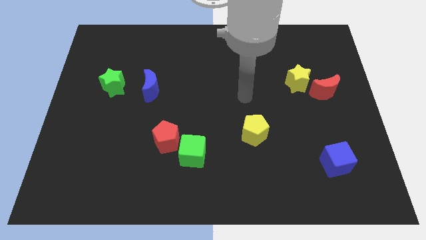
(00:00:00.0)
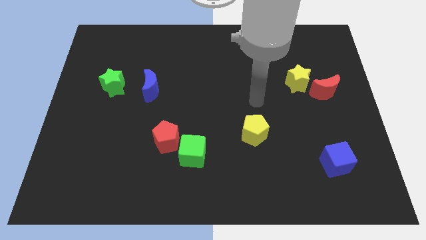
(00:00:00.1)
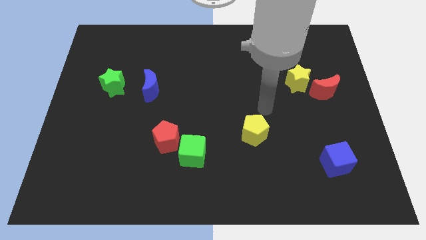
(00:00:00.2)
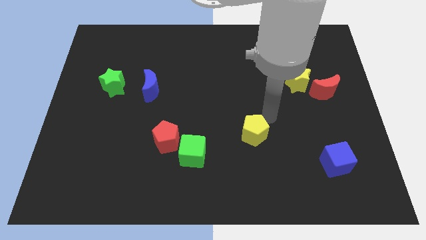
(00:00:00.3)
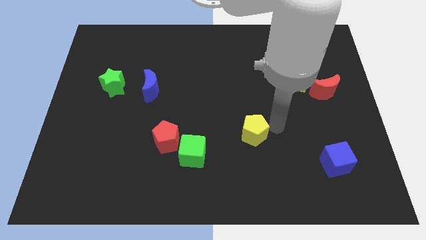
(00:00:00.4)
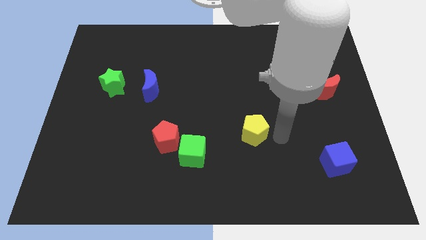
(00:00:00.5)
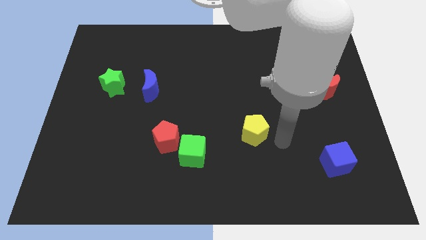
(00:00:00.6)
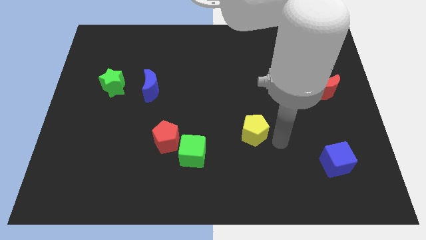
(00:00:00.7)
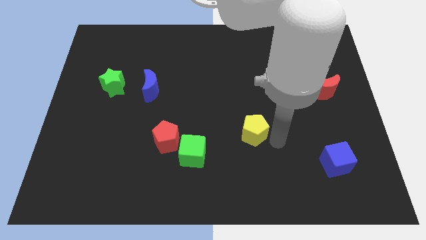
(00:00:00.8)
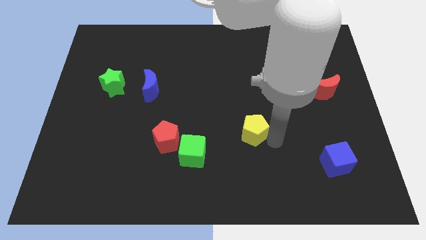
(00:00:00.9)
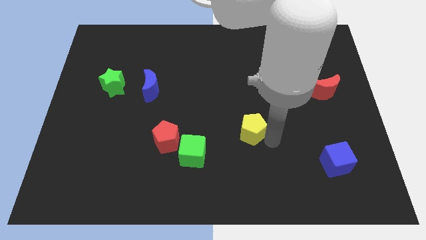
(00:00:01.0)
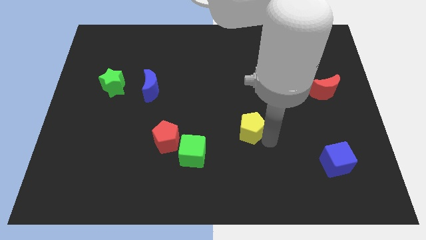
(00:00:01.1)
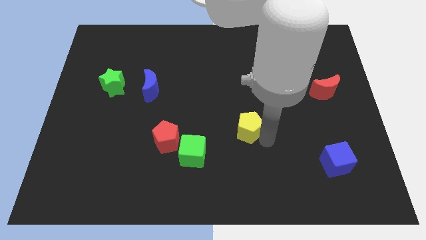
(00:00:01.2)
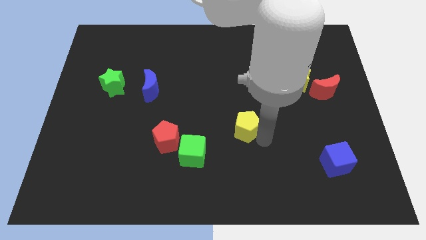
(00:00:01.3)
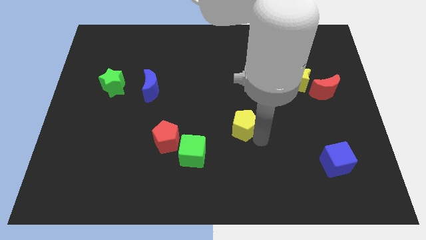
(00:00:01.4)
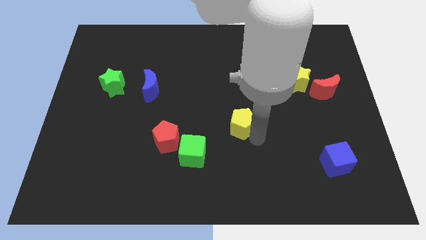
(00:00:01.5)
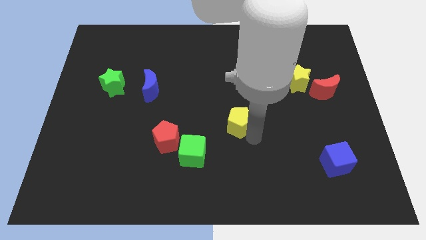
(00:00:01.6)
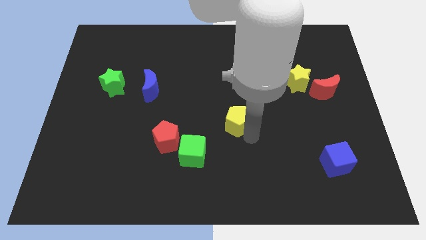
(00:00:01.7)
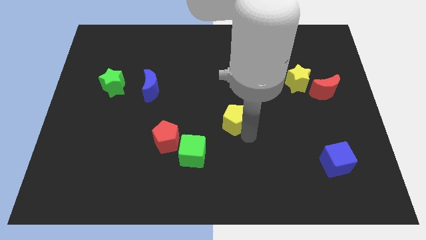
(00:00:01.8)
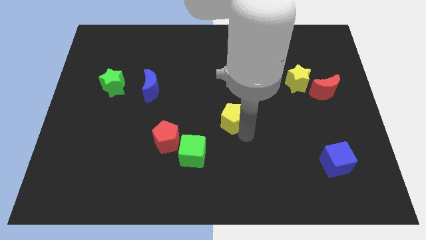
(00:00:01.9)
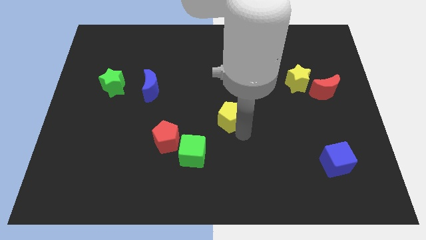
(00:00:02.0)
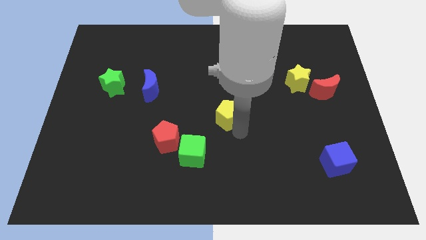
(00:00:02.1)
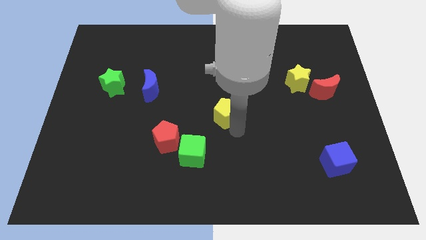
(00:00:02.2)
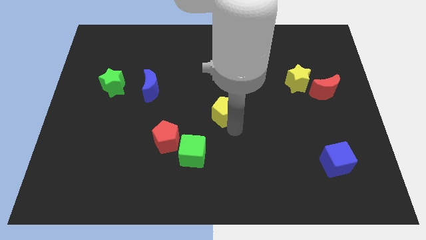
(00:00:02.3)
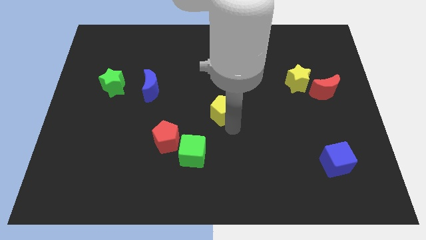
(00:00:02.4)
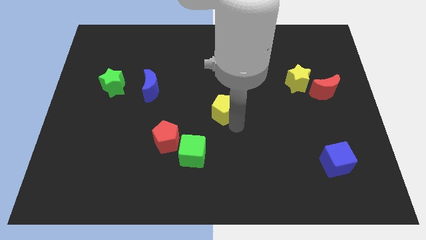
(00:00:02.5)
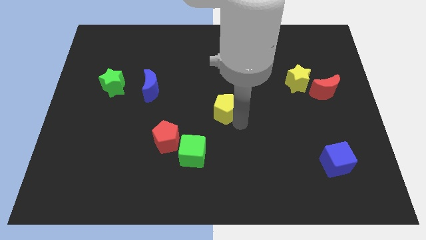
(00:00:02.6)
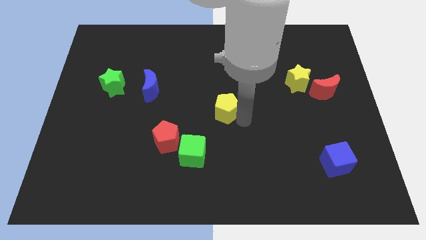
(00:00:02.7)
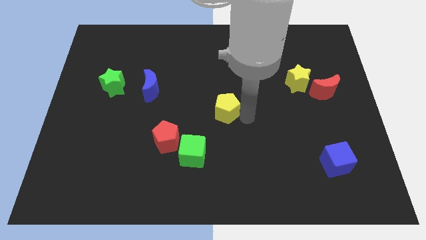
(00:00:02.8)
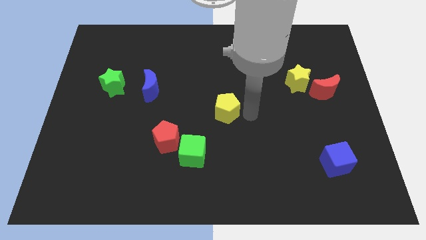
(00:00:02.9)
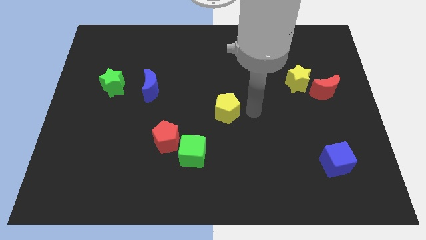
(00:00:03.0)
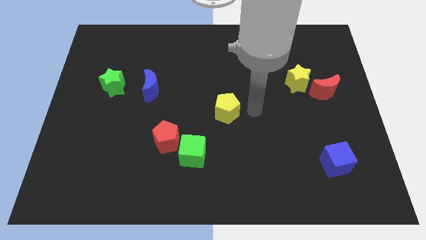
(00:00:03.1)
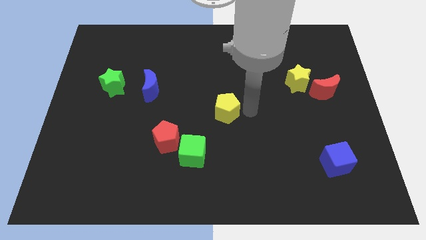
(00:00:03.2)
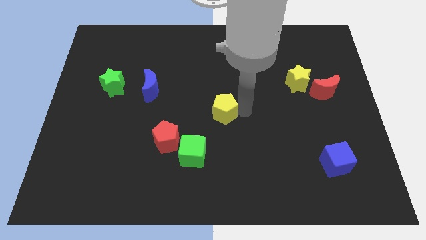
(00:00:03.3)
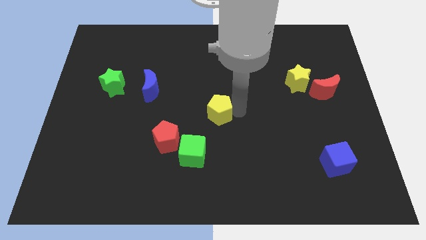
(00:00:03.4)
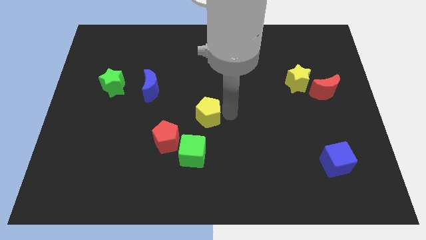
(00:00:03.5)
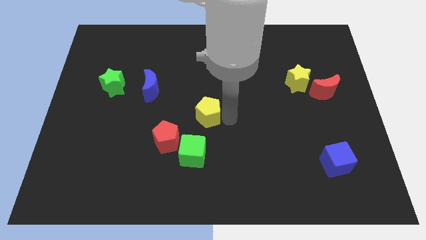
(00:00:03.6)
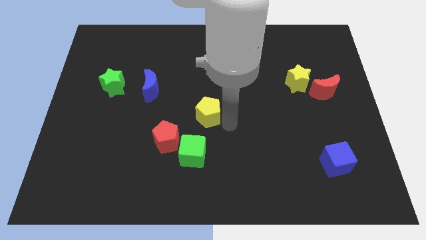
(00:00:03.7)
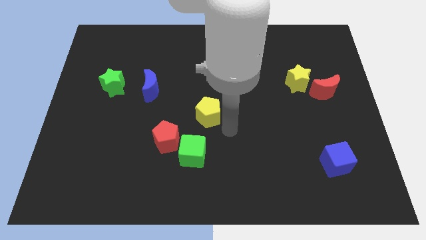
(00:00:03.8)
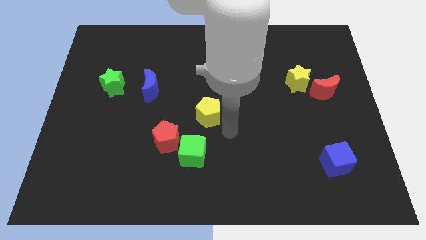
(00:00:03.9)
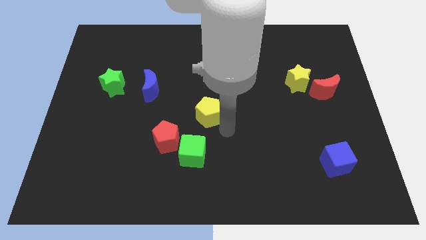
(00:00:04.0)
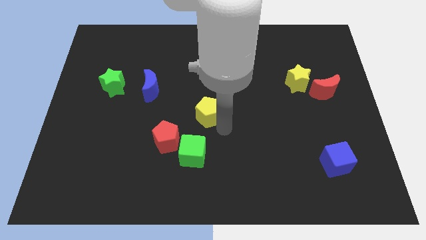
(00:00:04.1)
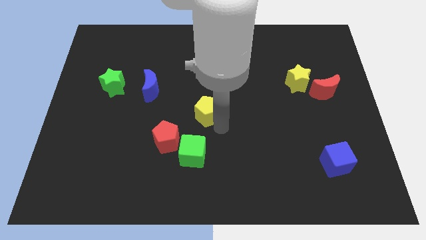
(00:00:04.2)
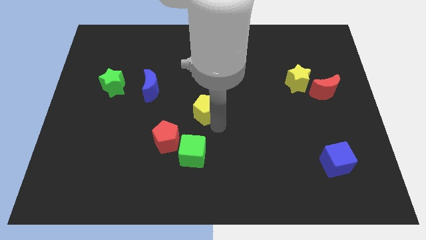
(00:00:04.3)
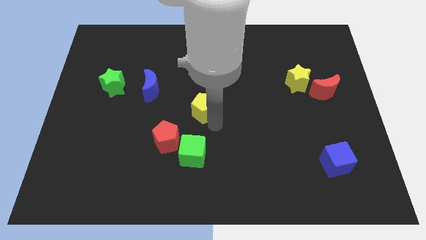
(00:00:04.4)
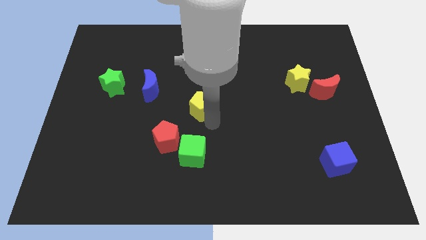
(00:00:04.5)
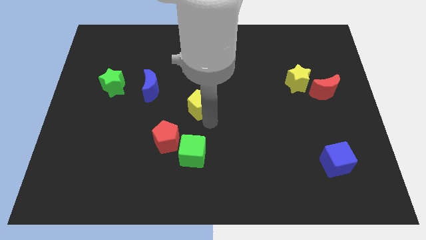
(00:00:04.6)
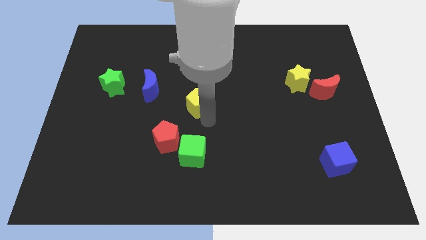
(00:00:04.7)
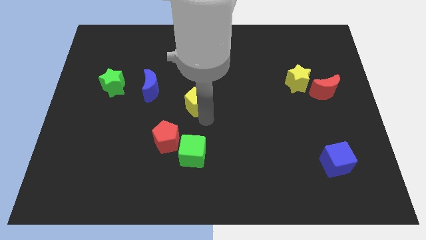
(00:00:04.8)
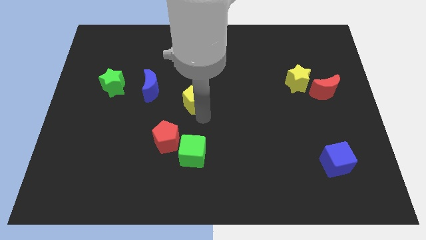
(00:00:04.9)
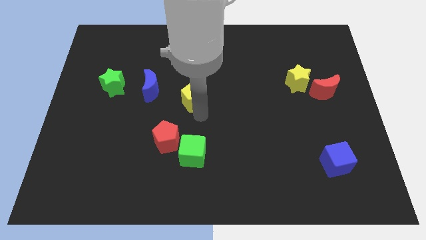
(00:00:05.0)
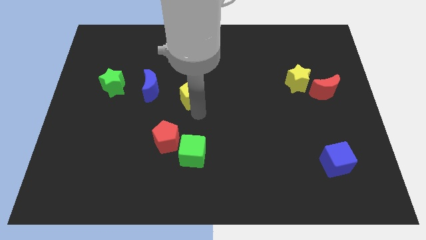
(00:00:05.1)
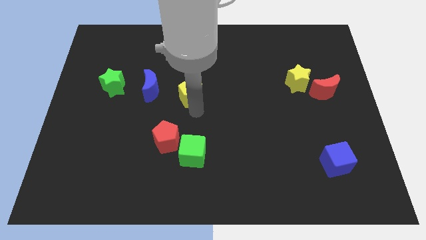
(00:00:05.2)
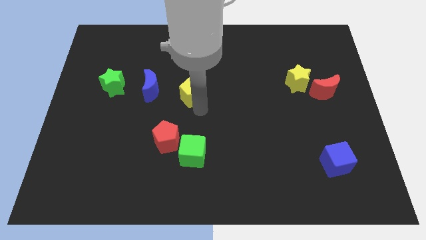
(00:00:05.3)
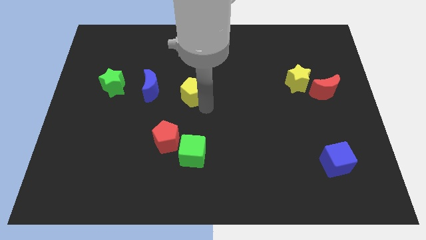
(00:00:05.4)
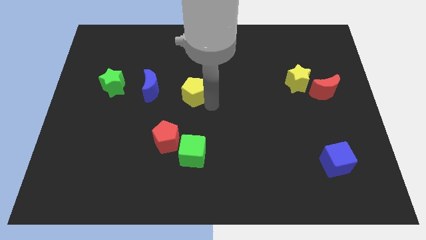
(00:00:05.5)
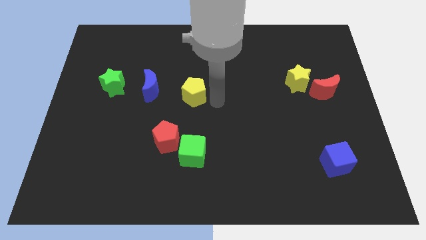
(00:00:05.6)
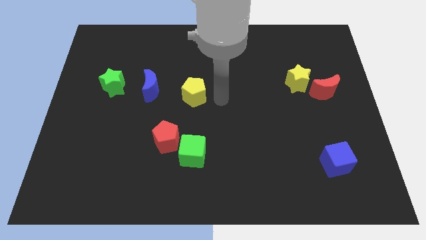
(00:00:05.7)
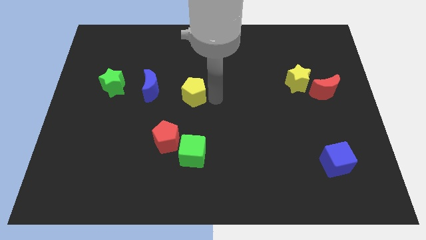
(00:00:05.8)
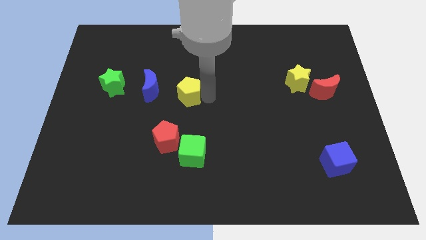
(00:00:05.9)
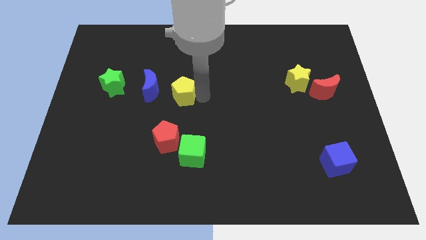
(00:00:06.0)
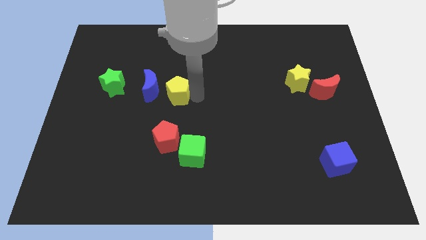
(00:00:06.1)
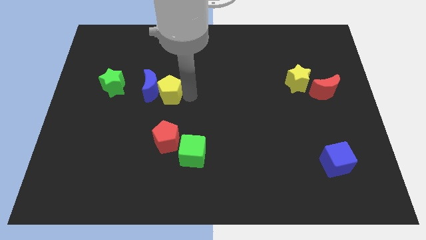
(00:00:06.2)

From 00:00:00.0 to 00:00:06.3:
move the yellow pentagon towards the blue moon
